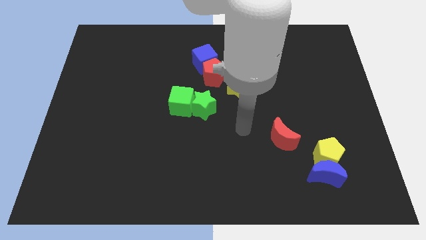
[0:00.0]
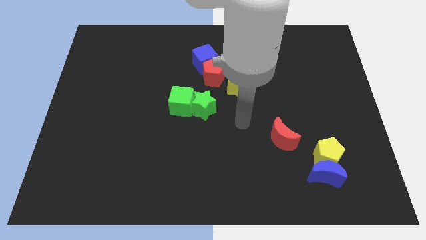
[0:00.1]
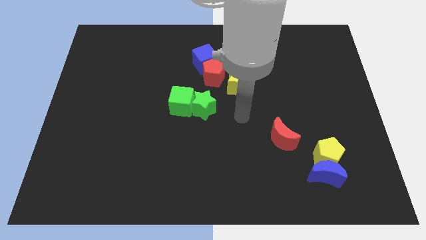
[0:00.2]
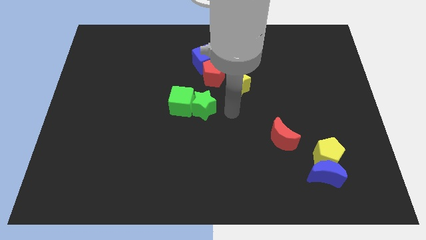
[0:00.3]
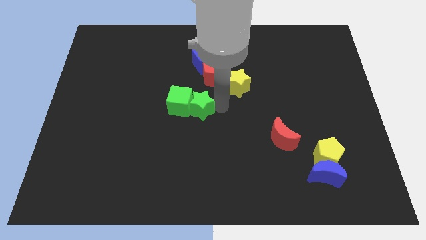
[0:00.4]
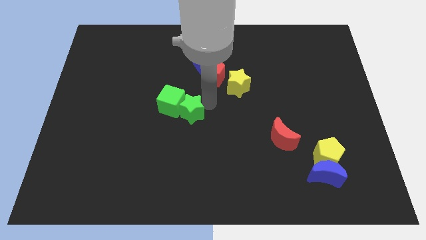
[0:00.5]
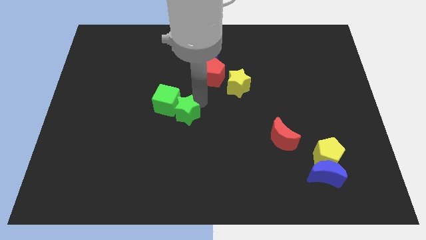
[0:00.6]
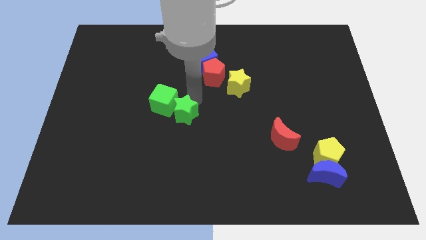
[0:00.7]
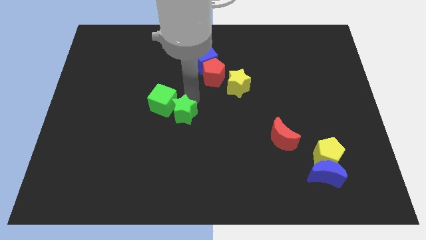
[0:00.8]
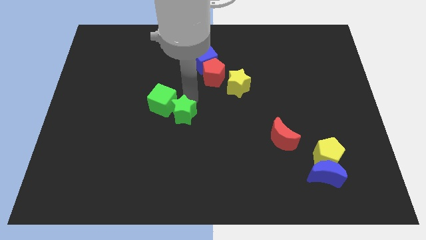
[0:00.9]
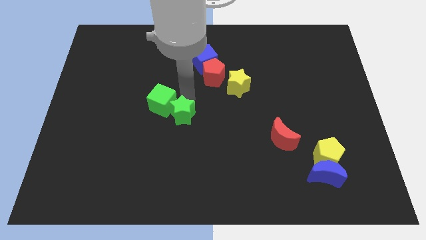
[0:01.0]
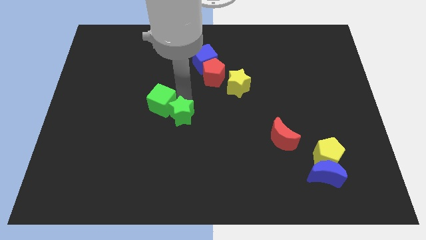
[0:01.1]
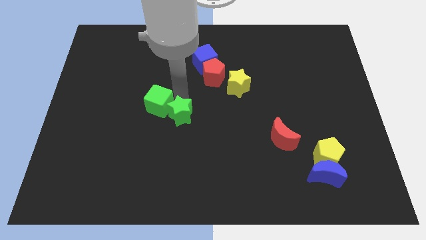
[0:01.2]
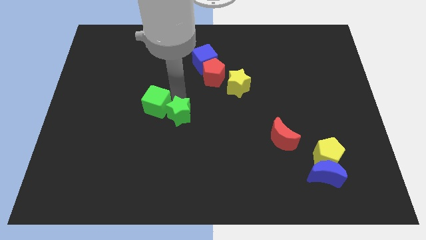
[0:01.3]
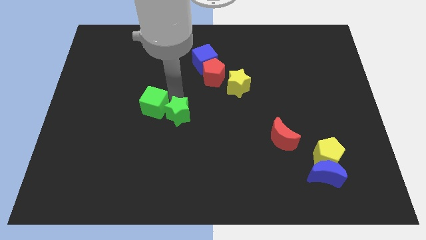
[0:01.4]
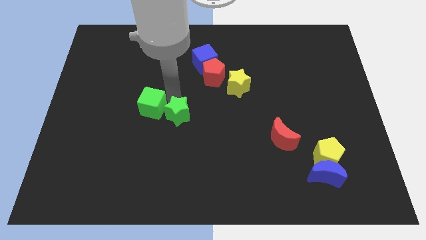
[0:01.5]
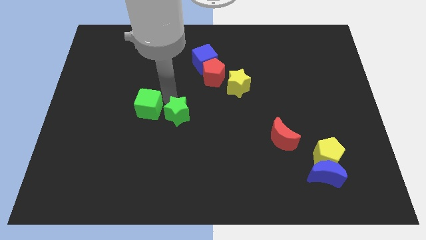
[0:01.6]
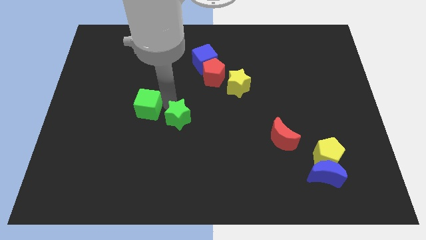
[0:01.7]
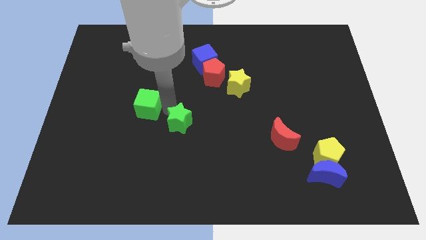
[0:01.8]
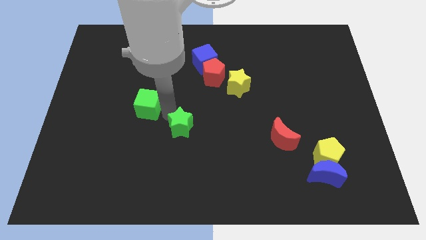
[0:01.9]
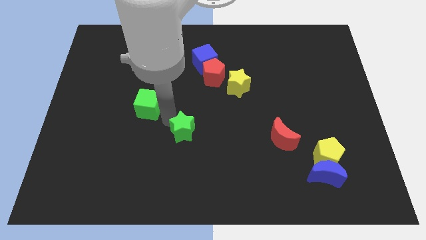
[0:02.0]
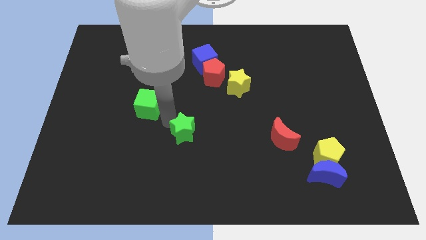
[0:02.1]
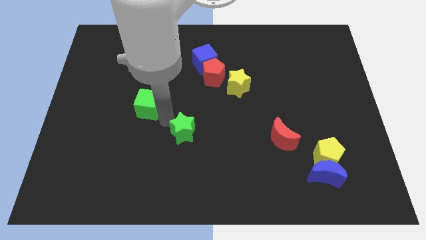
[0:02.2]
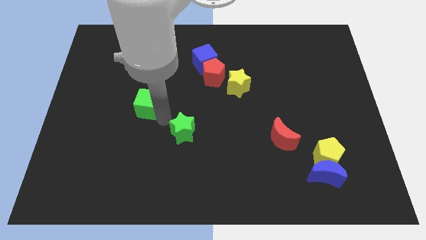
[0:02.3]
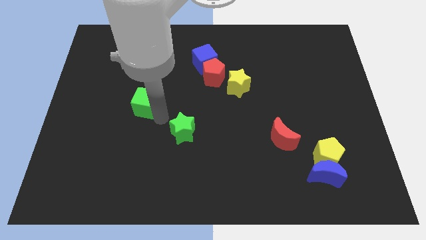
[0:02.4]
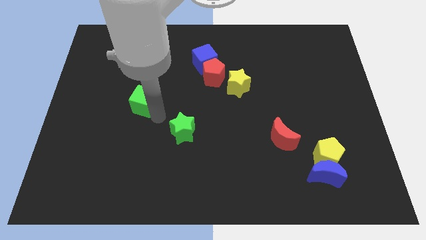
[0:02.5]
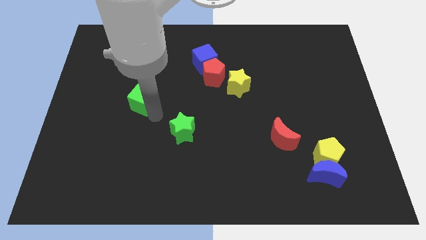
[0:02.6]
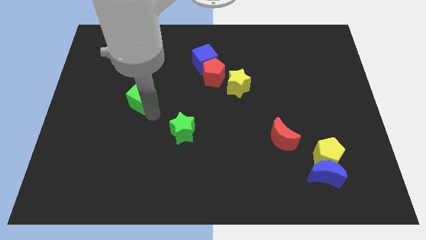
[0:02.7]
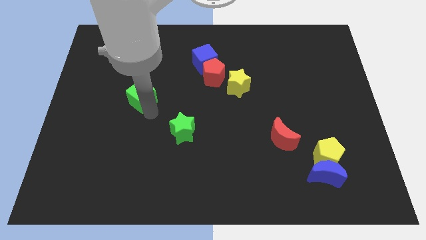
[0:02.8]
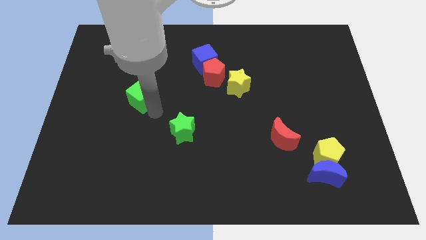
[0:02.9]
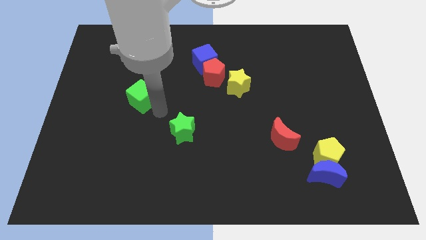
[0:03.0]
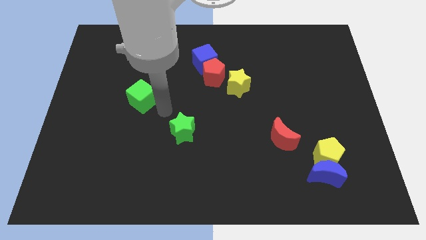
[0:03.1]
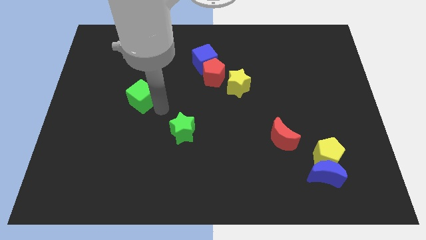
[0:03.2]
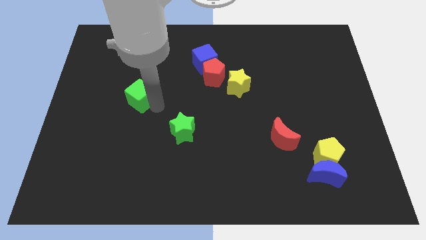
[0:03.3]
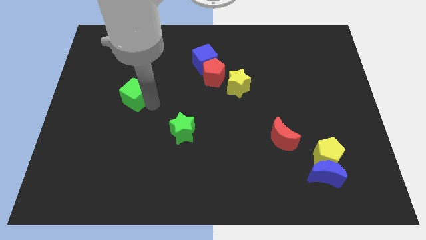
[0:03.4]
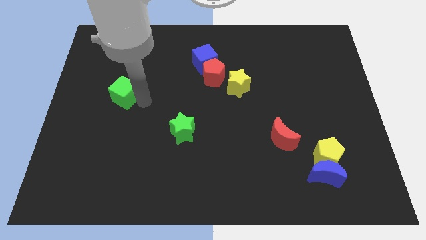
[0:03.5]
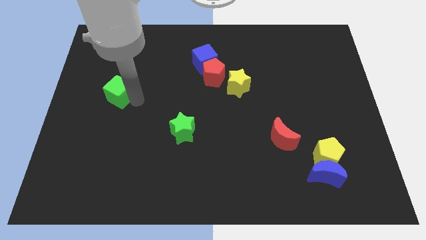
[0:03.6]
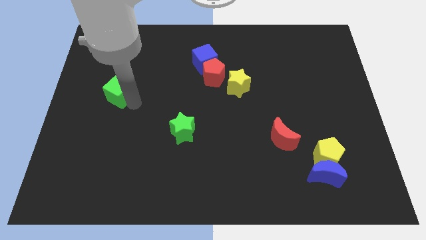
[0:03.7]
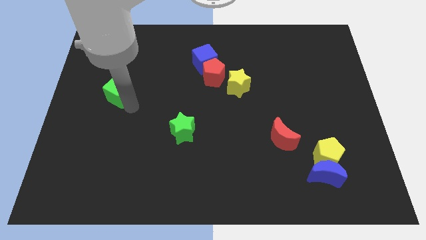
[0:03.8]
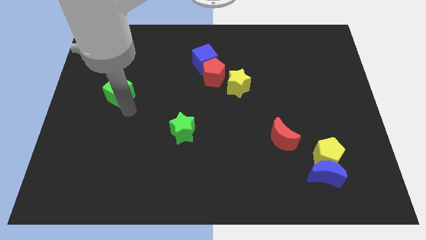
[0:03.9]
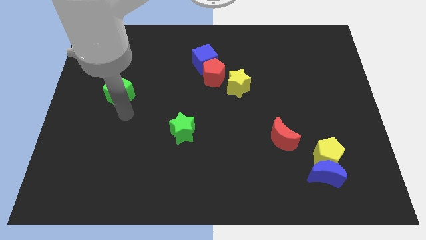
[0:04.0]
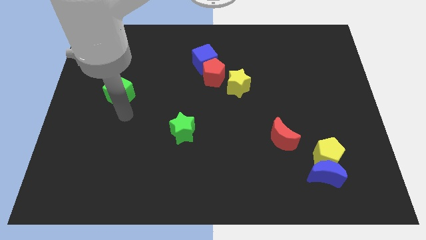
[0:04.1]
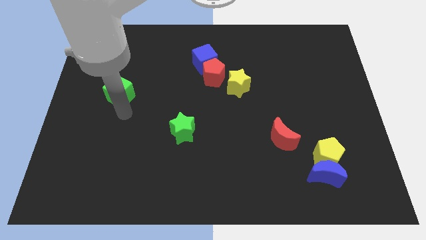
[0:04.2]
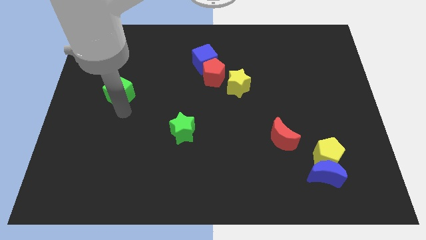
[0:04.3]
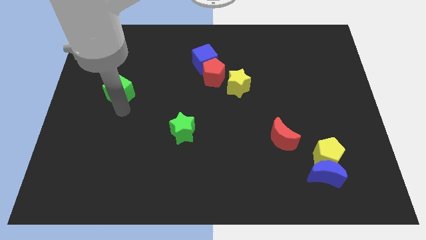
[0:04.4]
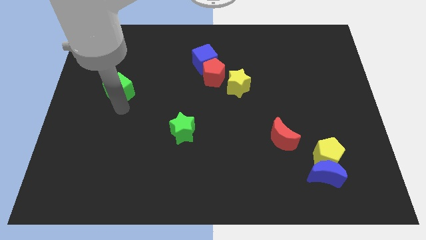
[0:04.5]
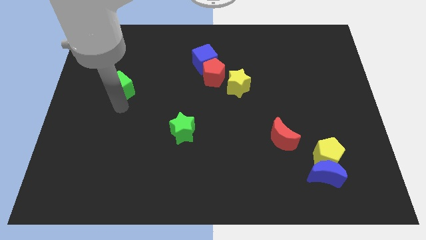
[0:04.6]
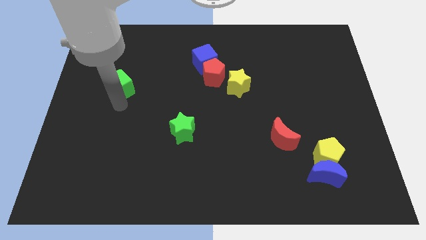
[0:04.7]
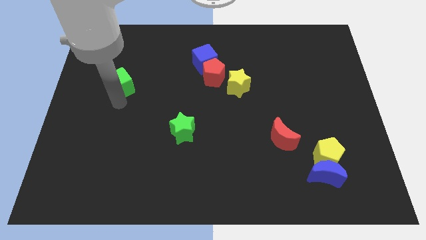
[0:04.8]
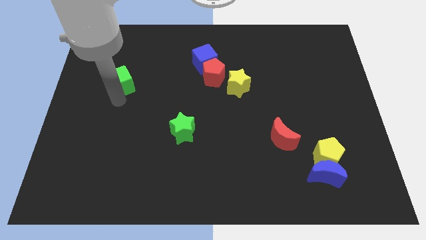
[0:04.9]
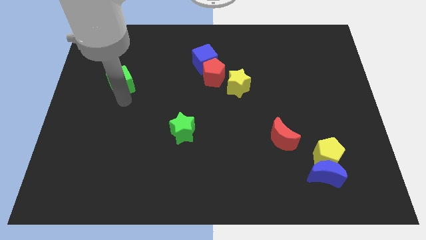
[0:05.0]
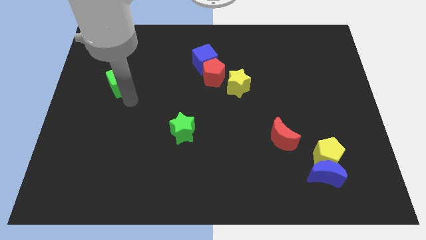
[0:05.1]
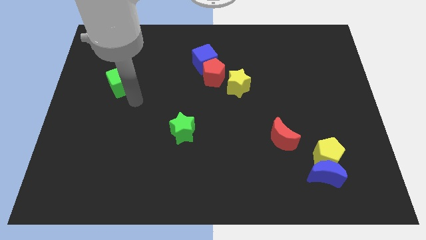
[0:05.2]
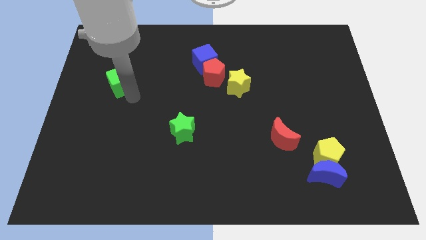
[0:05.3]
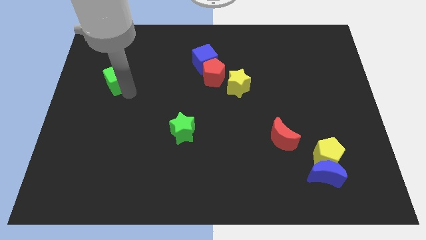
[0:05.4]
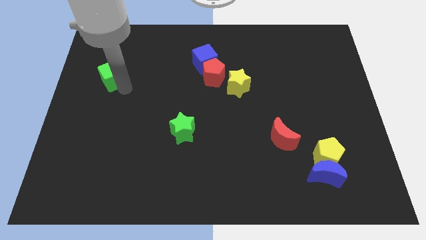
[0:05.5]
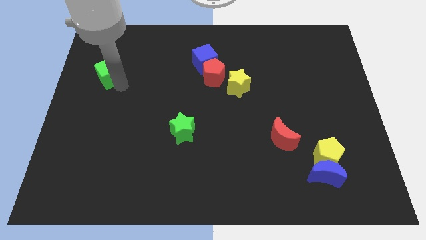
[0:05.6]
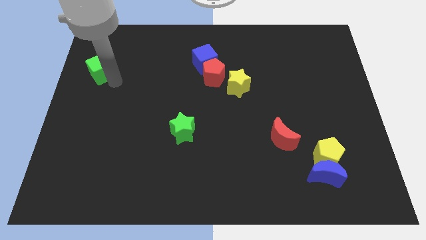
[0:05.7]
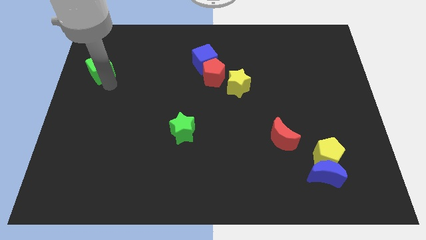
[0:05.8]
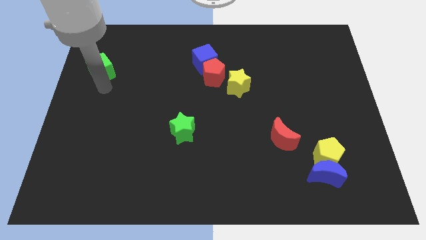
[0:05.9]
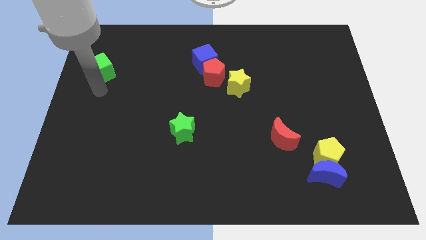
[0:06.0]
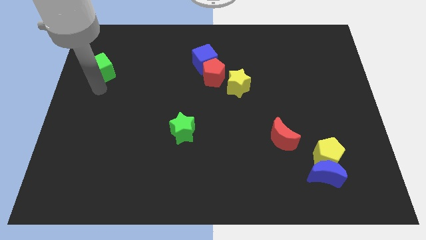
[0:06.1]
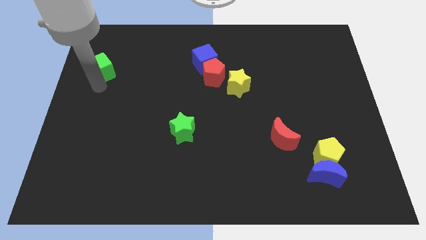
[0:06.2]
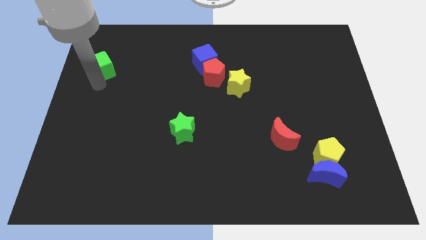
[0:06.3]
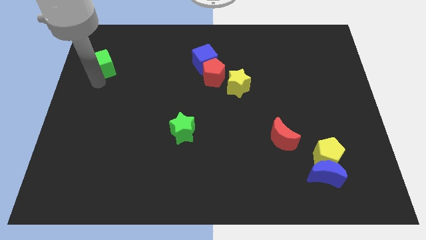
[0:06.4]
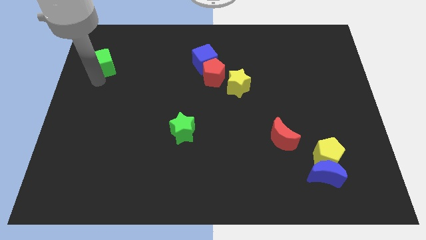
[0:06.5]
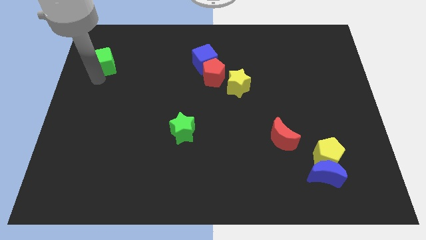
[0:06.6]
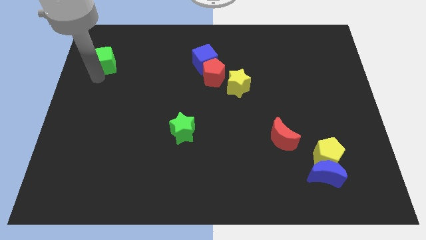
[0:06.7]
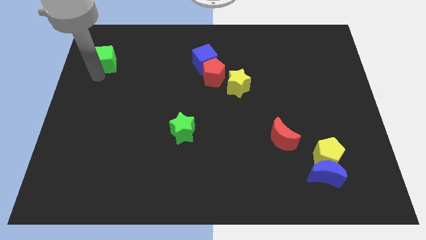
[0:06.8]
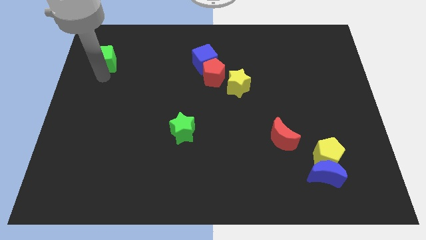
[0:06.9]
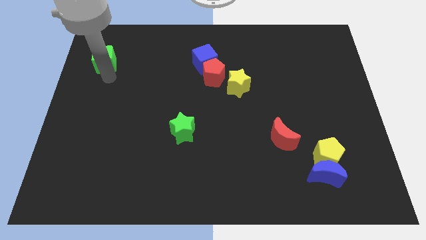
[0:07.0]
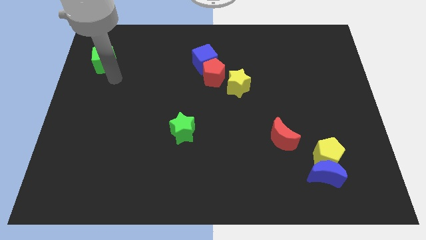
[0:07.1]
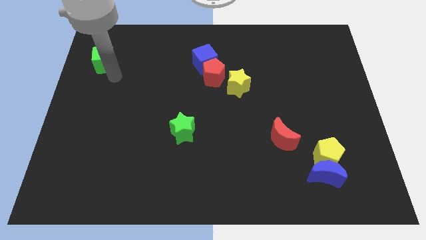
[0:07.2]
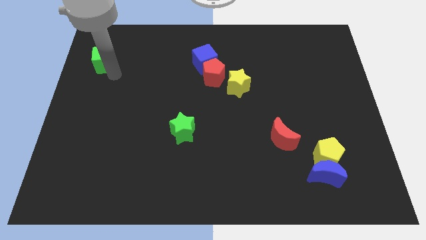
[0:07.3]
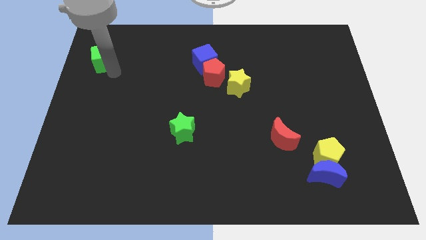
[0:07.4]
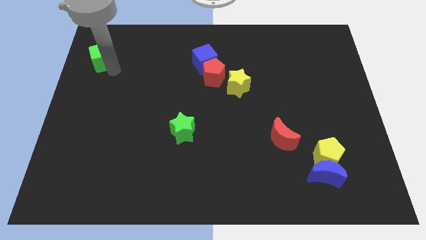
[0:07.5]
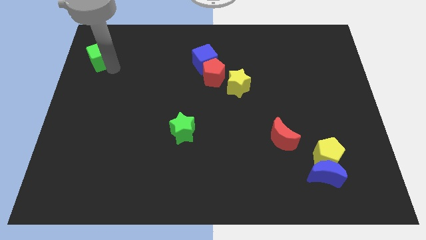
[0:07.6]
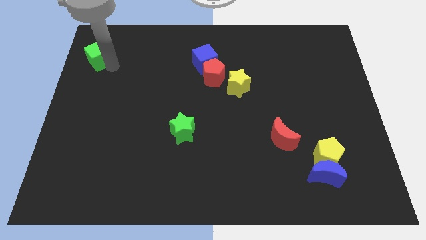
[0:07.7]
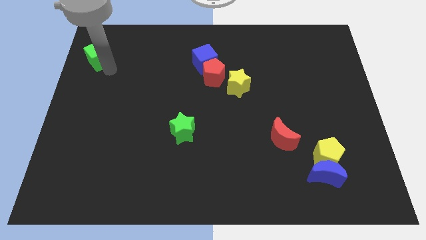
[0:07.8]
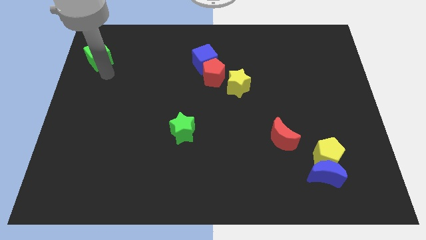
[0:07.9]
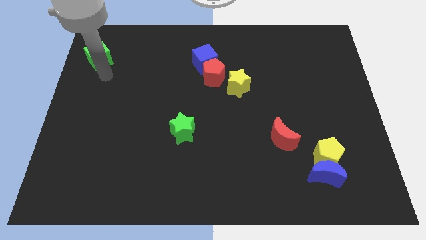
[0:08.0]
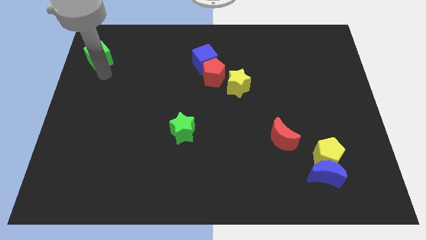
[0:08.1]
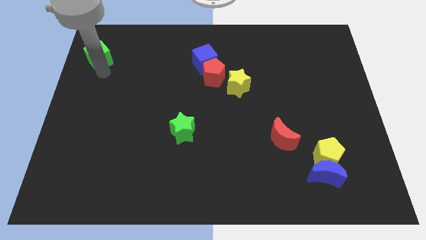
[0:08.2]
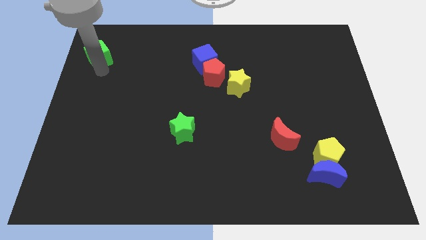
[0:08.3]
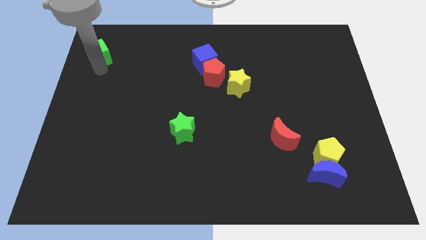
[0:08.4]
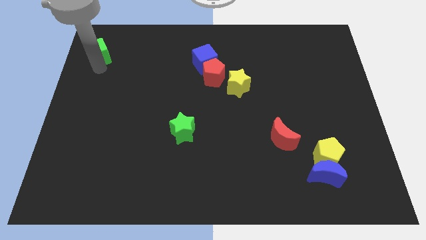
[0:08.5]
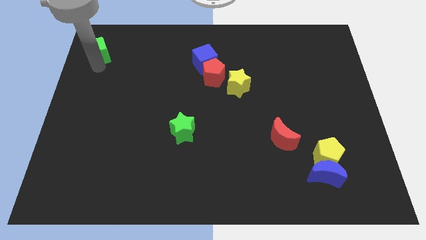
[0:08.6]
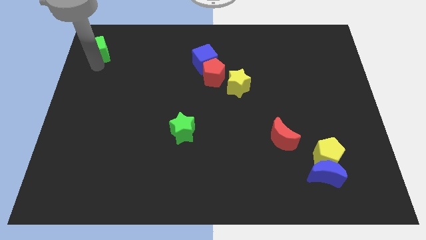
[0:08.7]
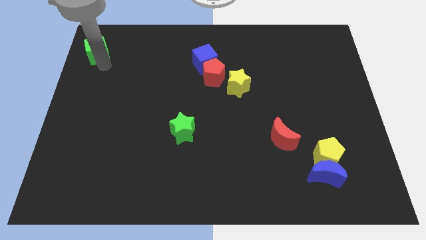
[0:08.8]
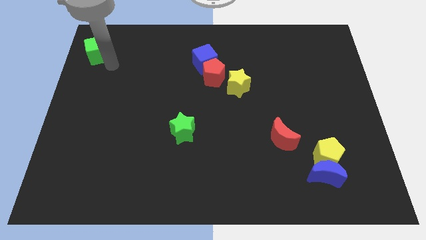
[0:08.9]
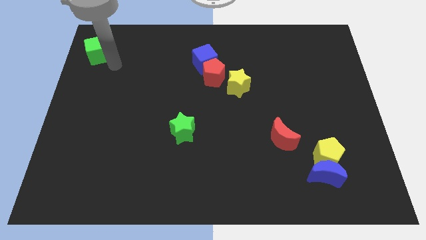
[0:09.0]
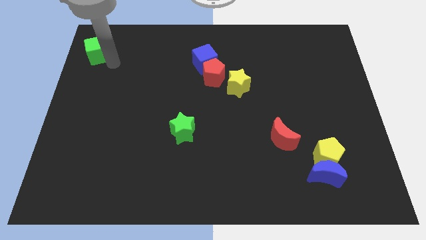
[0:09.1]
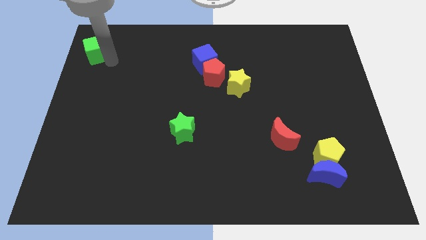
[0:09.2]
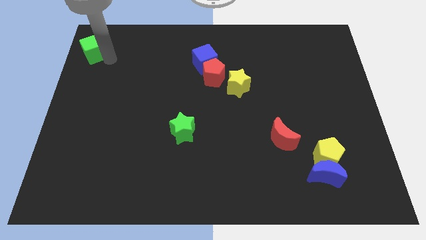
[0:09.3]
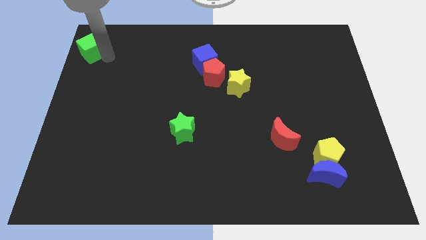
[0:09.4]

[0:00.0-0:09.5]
slide the green cube to the upper left corner
